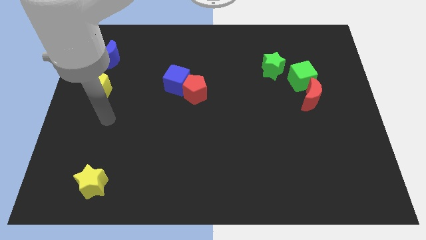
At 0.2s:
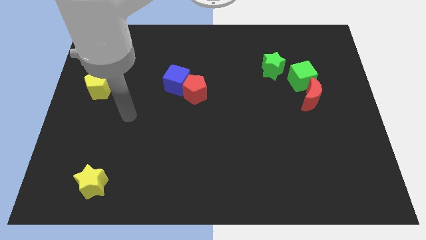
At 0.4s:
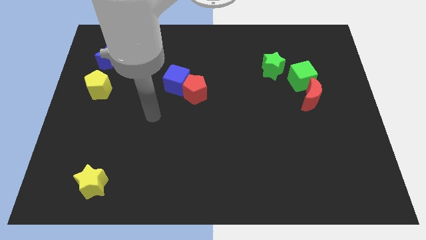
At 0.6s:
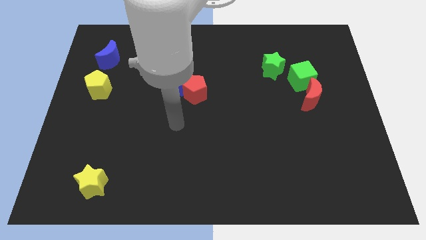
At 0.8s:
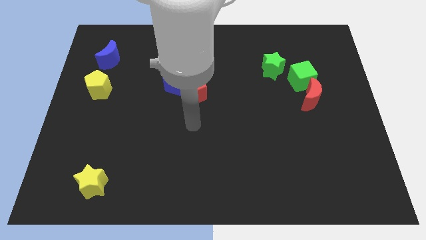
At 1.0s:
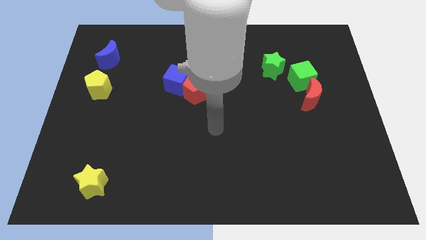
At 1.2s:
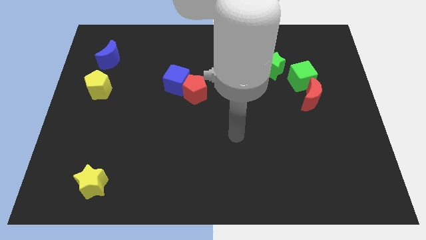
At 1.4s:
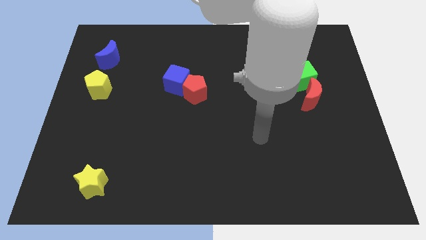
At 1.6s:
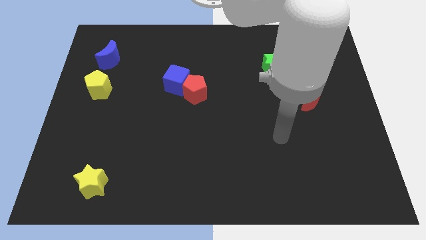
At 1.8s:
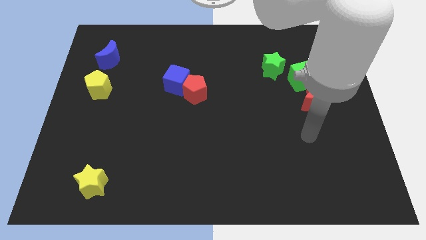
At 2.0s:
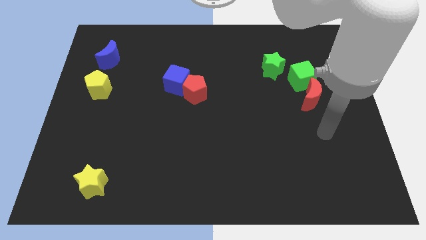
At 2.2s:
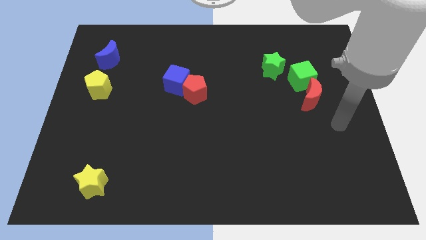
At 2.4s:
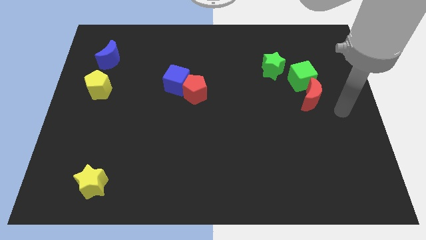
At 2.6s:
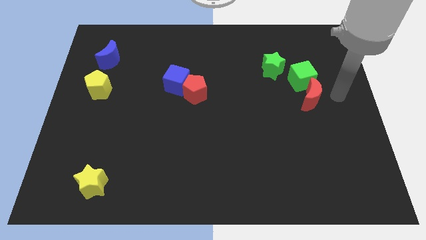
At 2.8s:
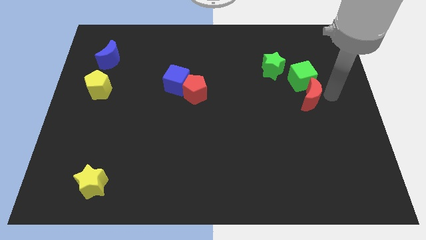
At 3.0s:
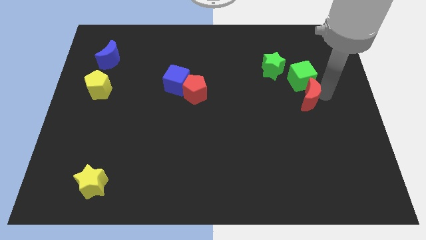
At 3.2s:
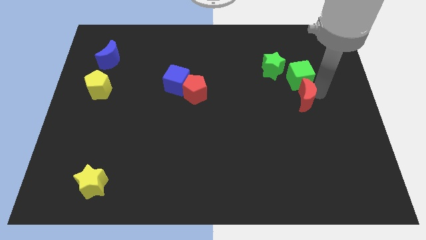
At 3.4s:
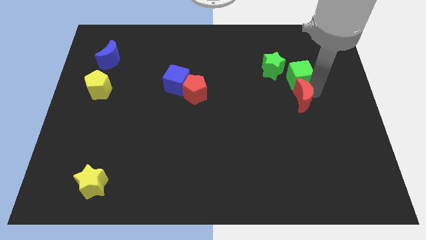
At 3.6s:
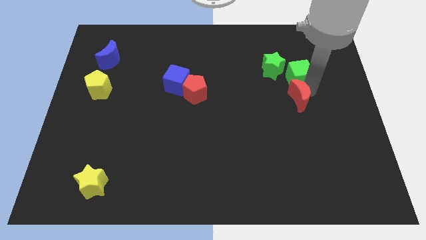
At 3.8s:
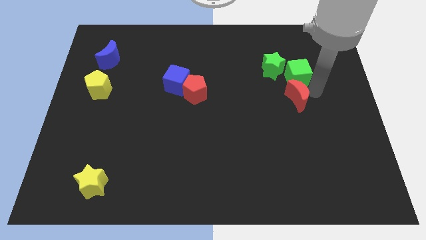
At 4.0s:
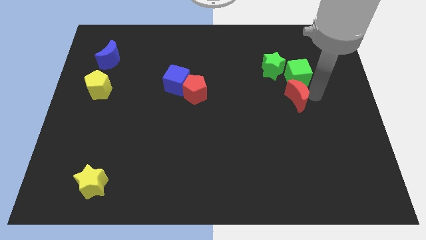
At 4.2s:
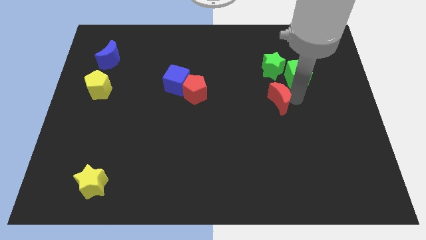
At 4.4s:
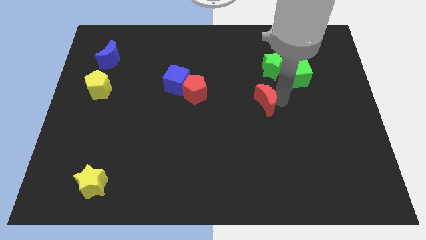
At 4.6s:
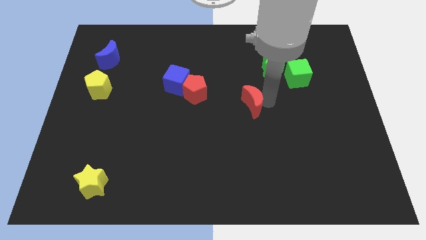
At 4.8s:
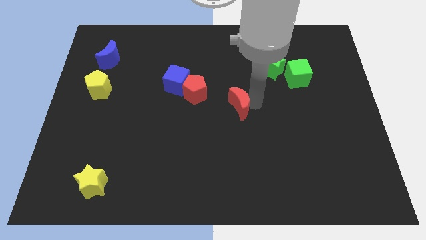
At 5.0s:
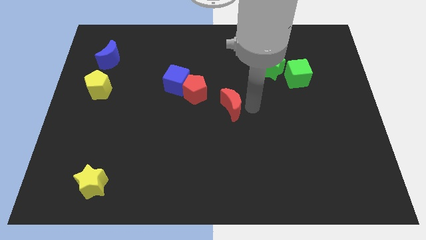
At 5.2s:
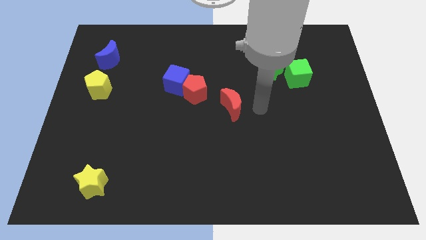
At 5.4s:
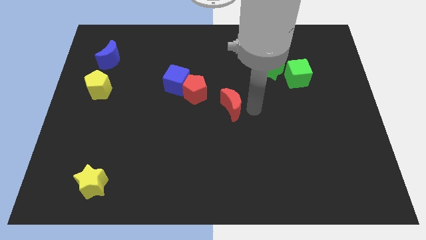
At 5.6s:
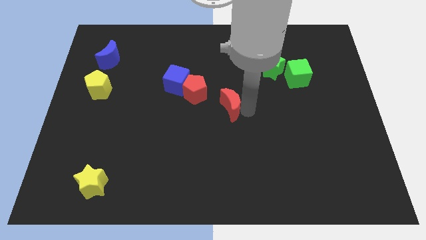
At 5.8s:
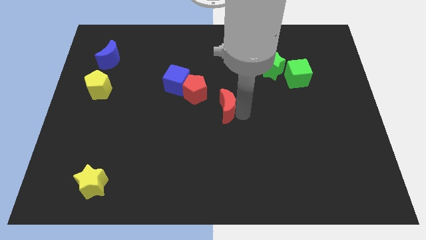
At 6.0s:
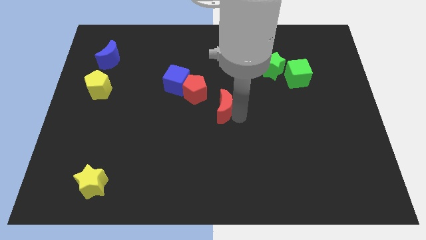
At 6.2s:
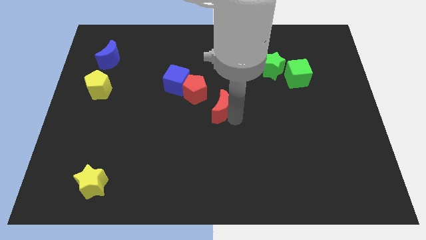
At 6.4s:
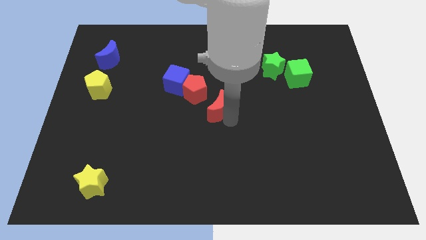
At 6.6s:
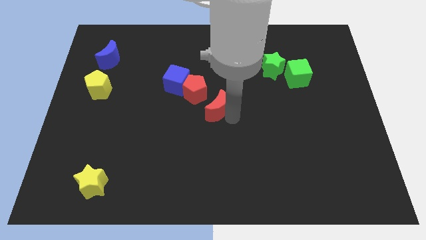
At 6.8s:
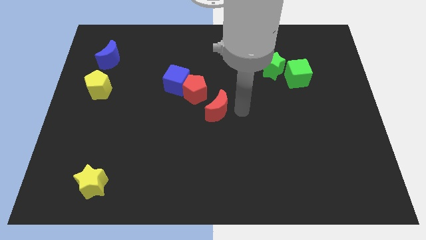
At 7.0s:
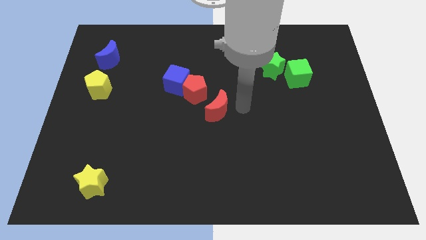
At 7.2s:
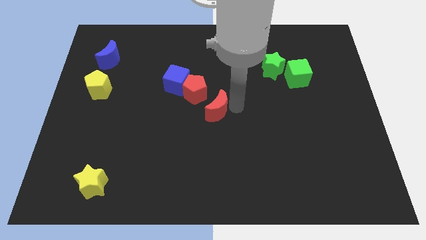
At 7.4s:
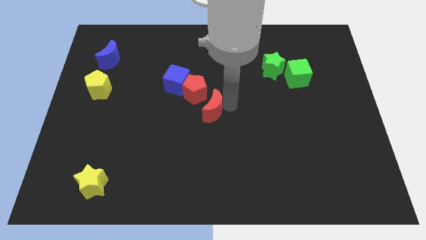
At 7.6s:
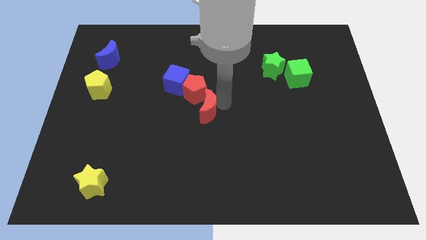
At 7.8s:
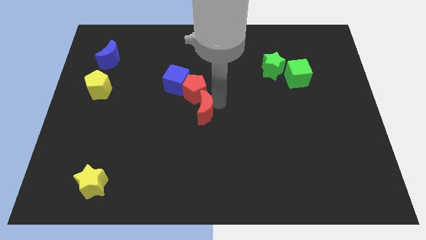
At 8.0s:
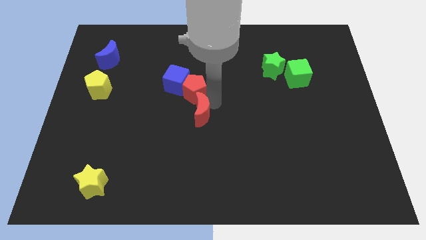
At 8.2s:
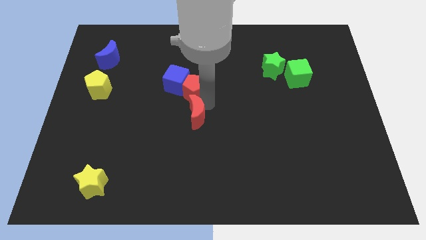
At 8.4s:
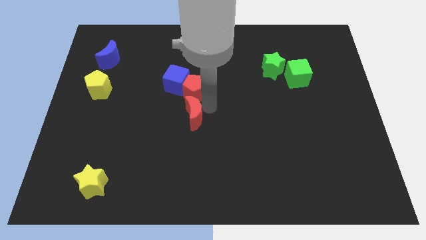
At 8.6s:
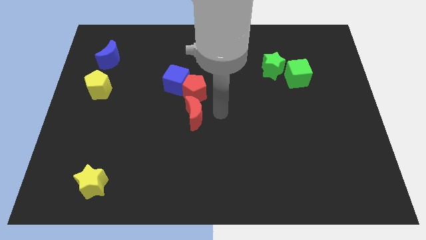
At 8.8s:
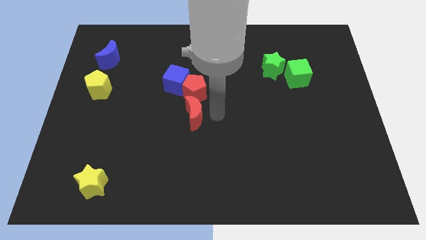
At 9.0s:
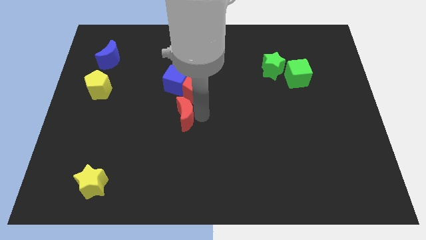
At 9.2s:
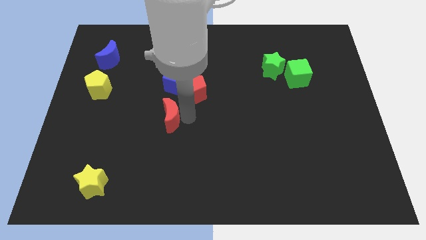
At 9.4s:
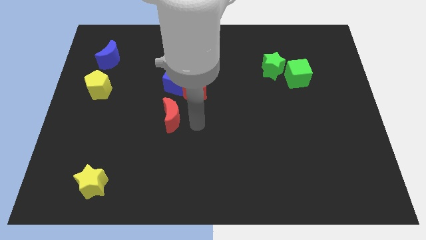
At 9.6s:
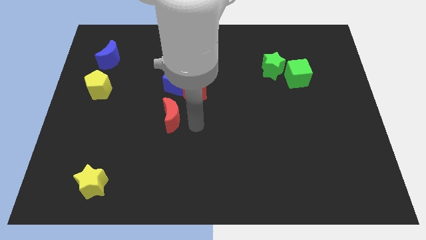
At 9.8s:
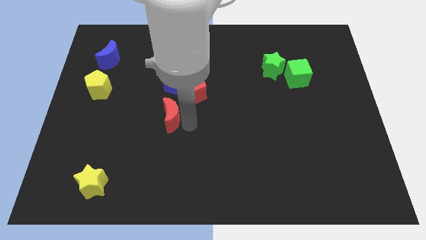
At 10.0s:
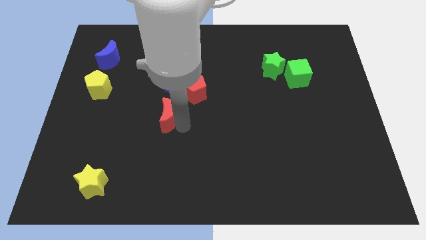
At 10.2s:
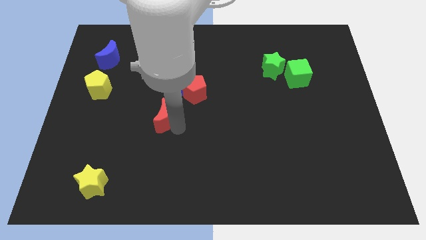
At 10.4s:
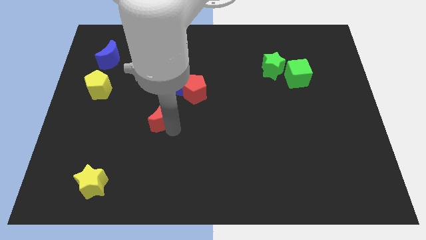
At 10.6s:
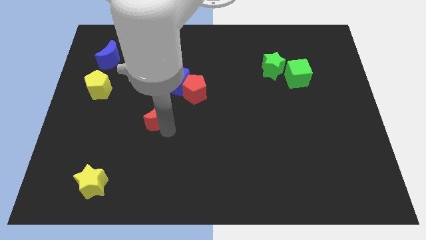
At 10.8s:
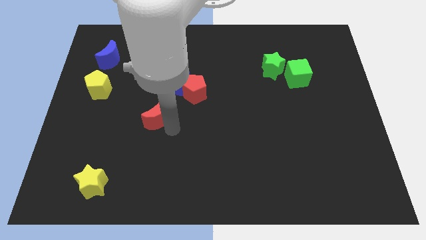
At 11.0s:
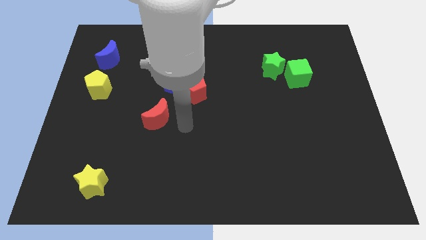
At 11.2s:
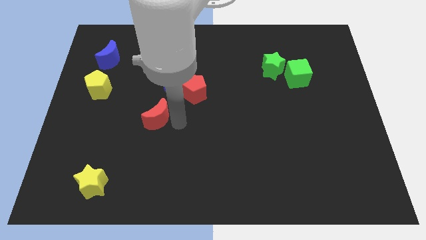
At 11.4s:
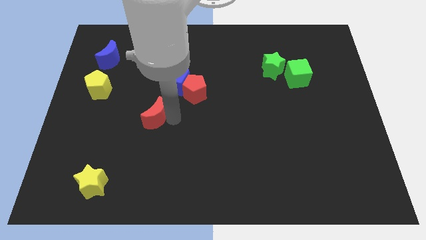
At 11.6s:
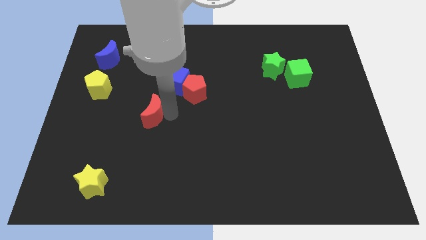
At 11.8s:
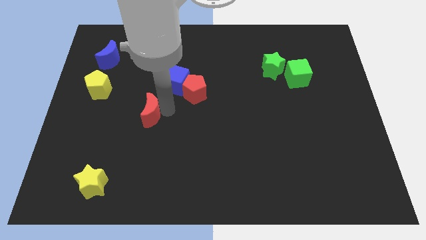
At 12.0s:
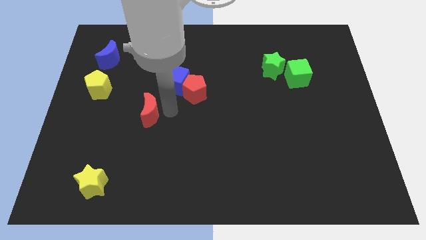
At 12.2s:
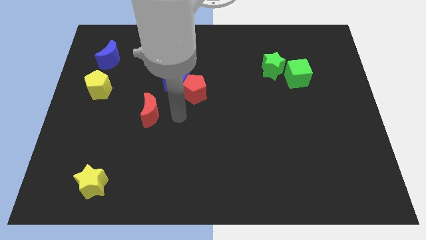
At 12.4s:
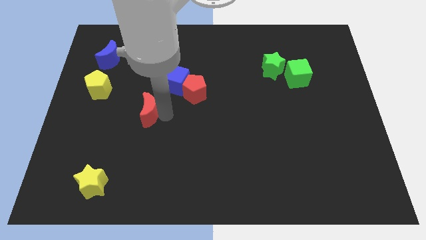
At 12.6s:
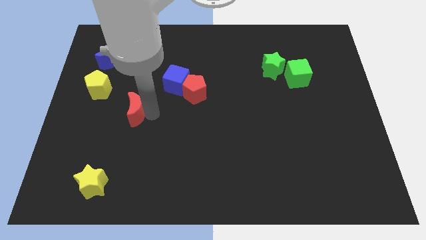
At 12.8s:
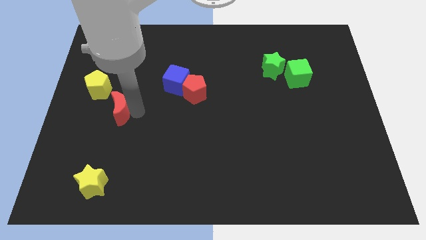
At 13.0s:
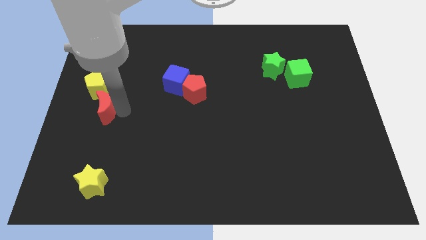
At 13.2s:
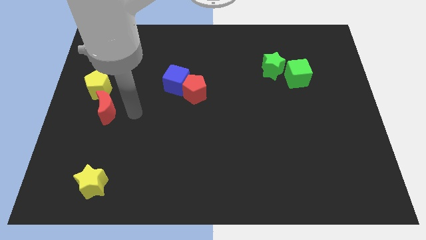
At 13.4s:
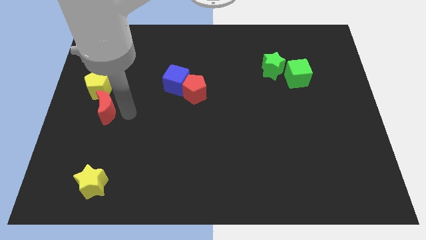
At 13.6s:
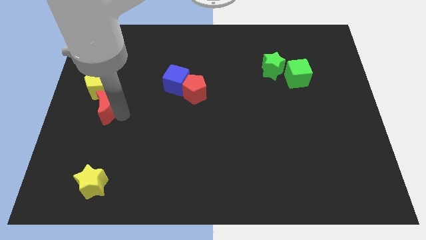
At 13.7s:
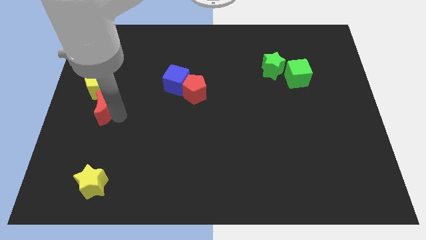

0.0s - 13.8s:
push the red moon to the left side

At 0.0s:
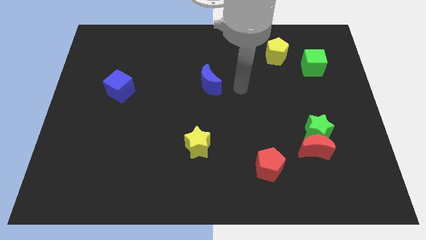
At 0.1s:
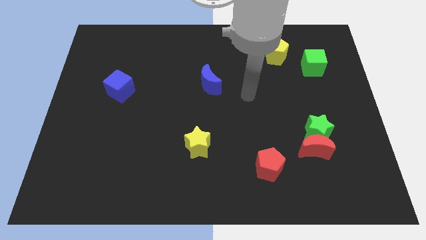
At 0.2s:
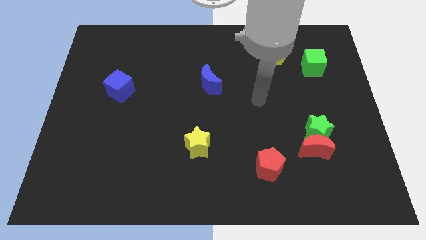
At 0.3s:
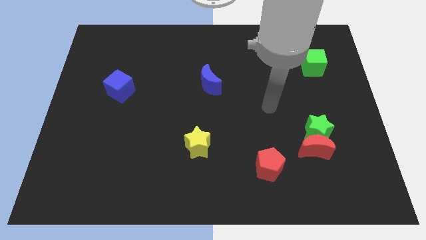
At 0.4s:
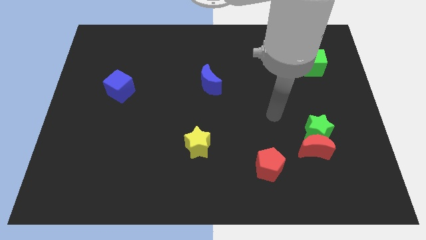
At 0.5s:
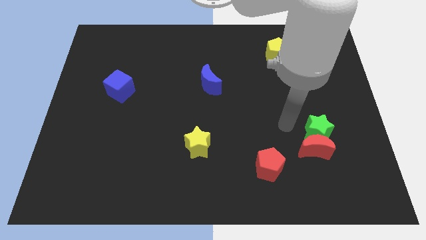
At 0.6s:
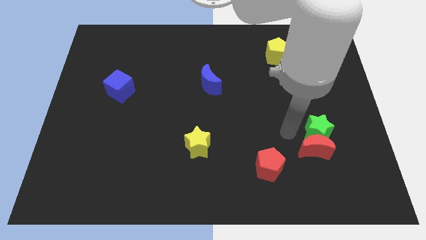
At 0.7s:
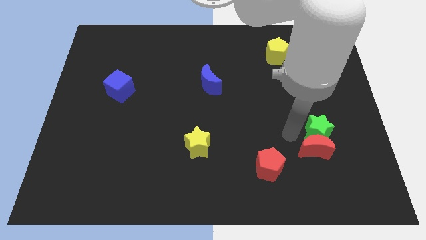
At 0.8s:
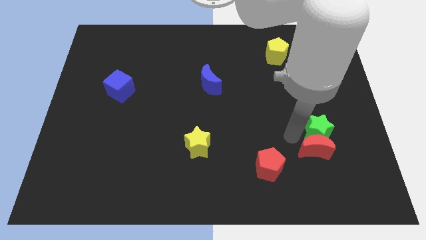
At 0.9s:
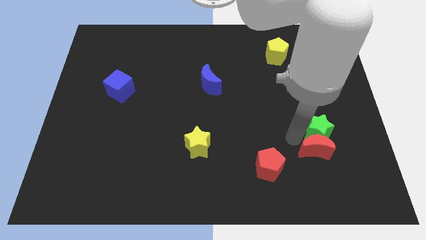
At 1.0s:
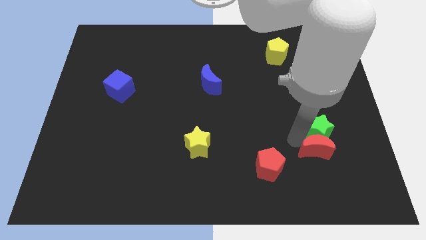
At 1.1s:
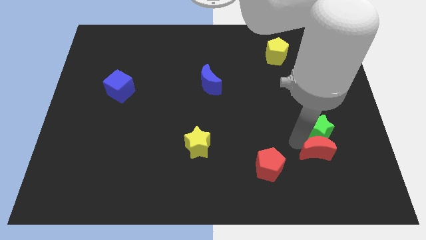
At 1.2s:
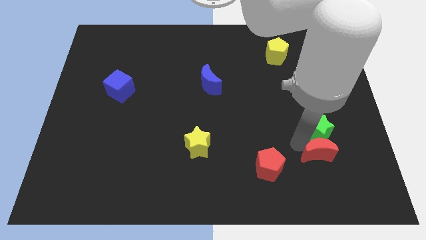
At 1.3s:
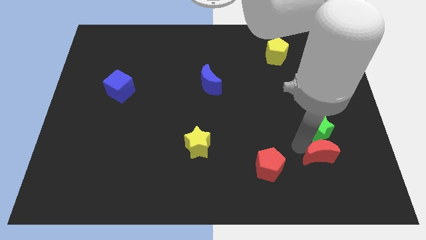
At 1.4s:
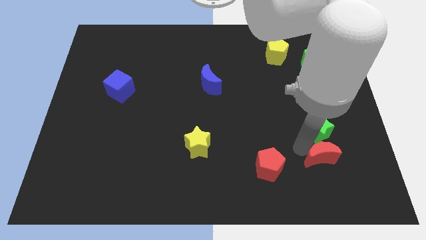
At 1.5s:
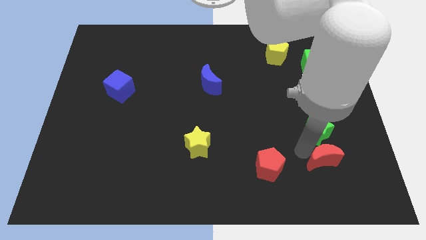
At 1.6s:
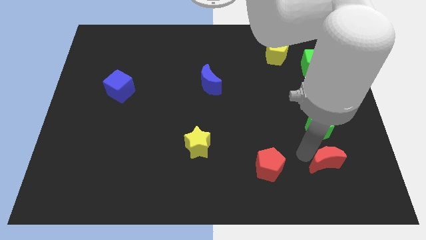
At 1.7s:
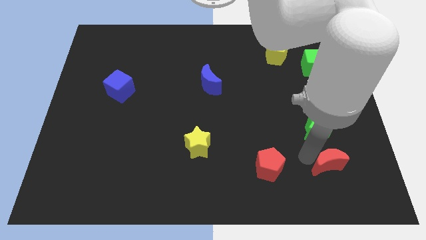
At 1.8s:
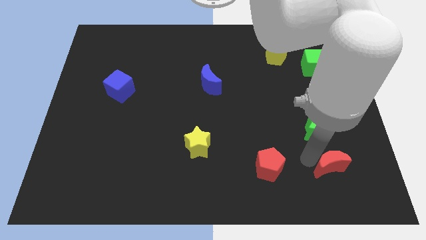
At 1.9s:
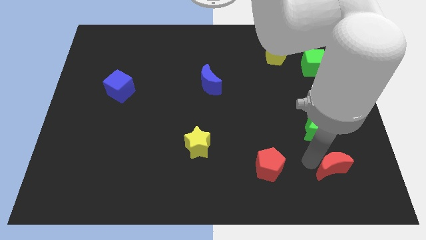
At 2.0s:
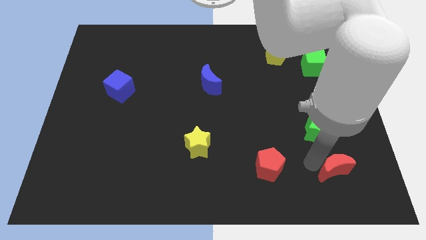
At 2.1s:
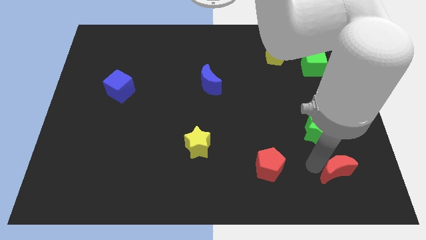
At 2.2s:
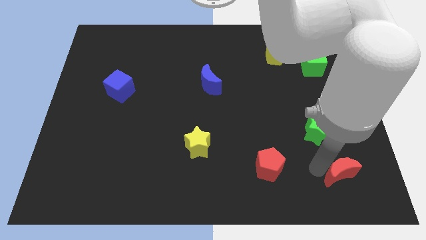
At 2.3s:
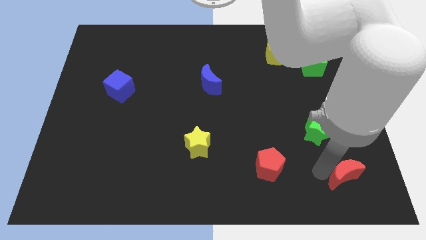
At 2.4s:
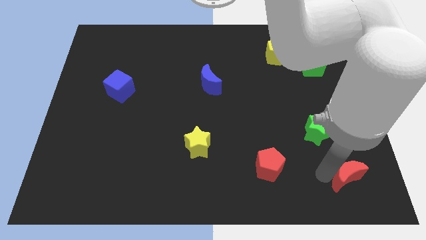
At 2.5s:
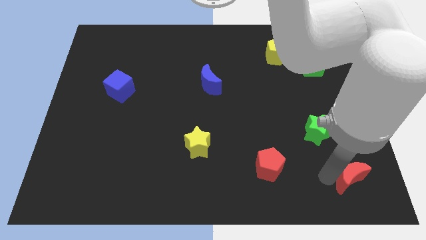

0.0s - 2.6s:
move the red moon to the lower right corner
